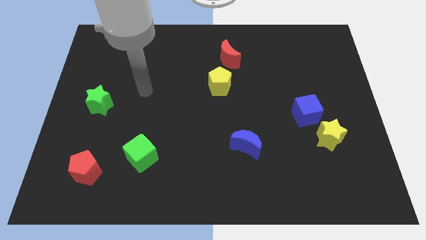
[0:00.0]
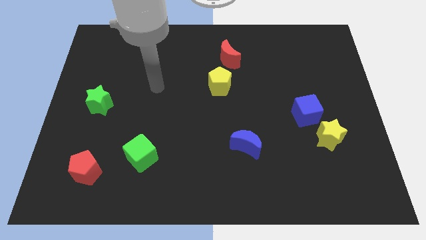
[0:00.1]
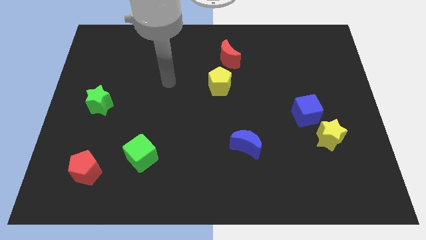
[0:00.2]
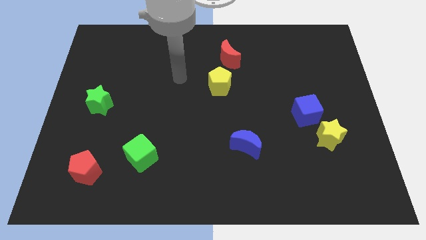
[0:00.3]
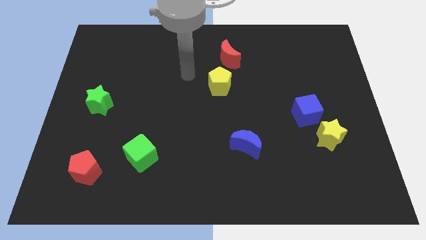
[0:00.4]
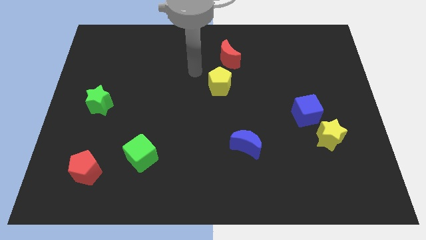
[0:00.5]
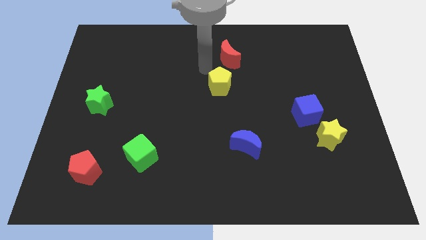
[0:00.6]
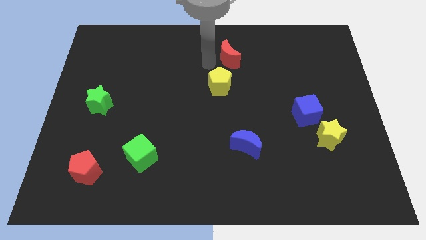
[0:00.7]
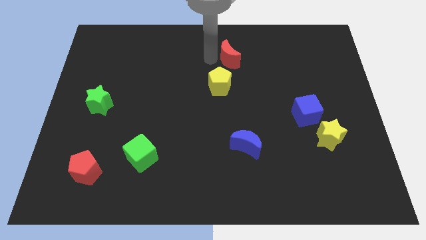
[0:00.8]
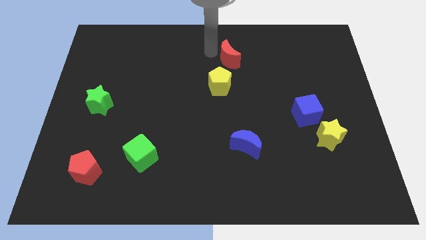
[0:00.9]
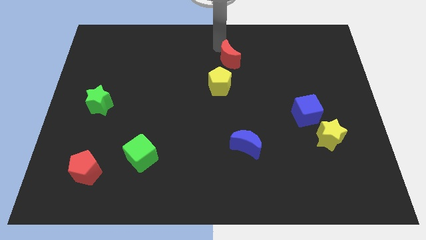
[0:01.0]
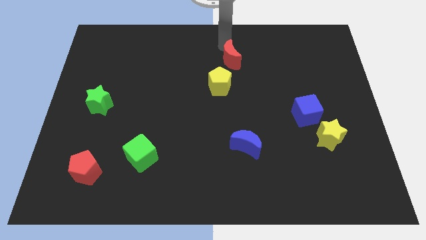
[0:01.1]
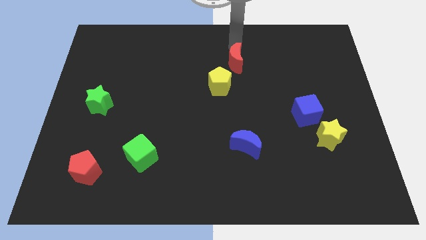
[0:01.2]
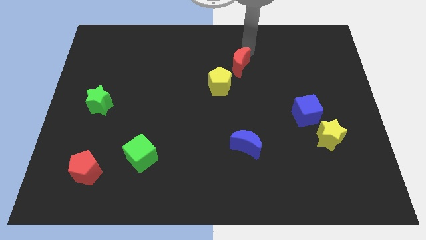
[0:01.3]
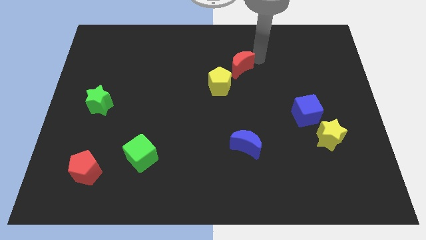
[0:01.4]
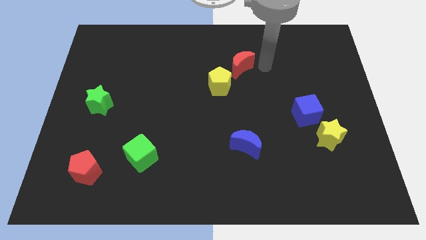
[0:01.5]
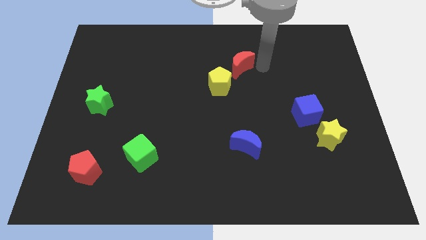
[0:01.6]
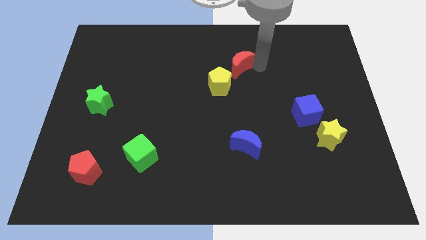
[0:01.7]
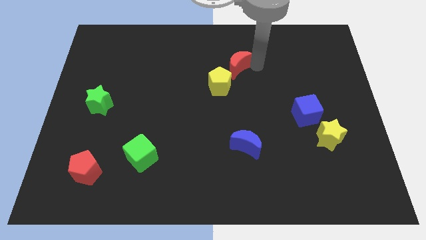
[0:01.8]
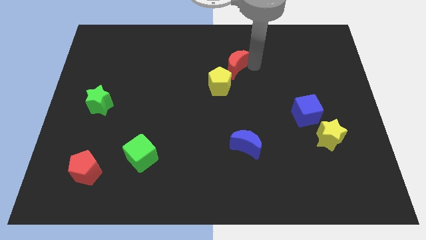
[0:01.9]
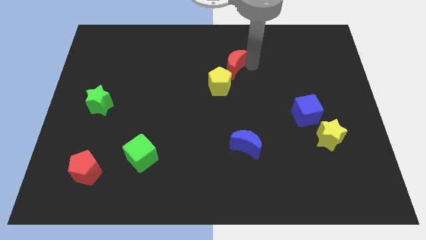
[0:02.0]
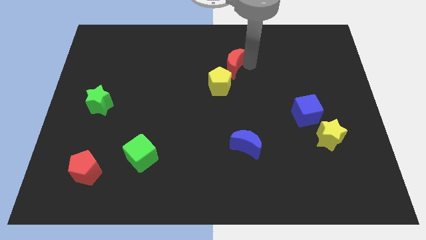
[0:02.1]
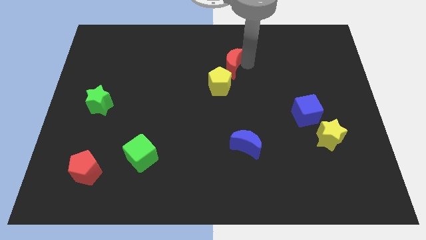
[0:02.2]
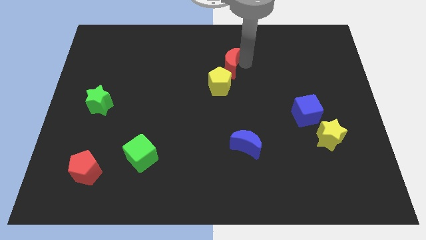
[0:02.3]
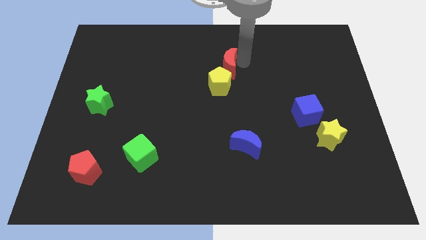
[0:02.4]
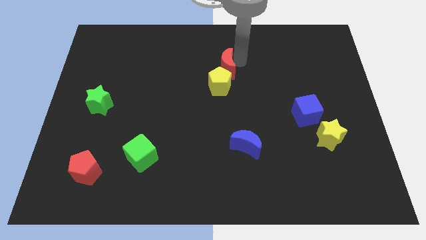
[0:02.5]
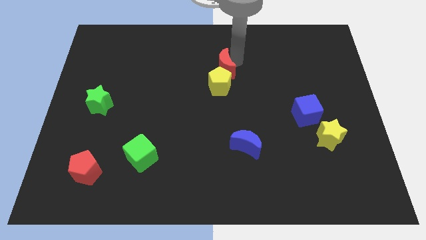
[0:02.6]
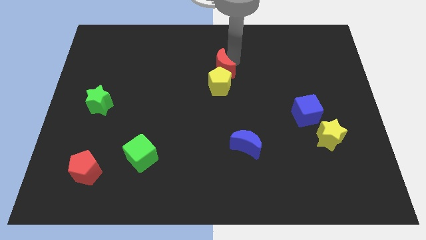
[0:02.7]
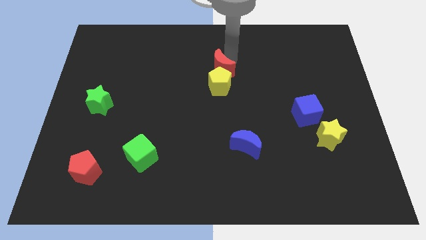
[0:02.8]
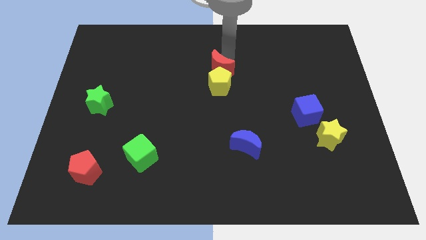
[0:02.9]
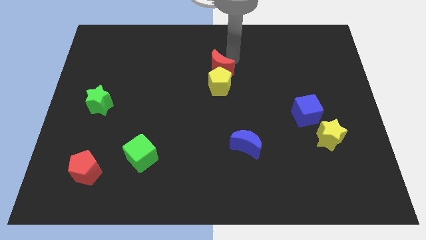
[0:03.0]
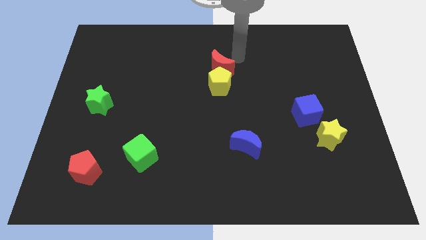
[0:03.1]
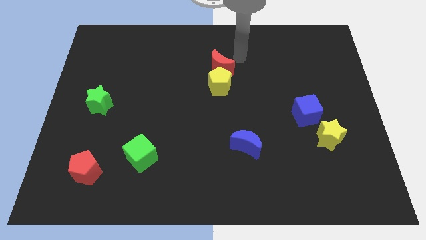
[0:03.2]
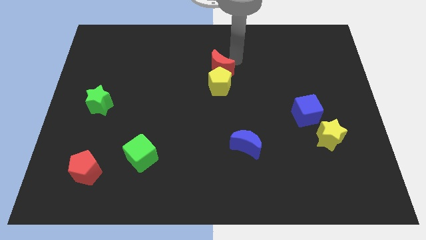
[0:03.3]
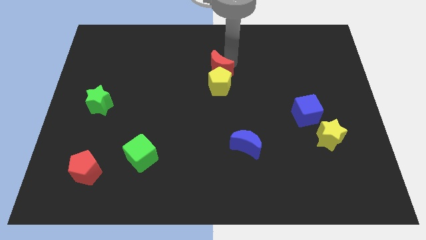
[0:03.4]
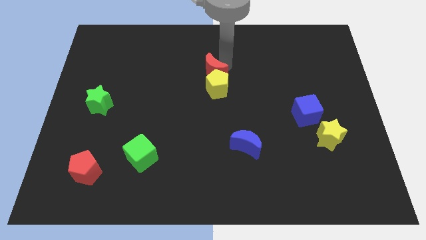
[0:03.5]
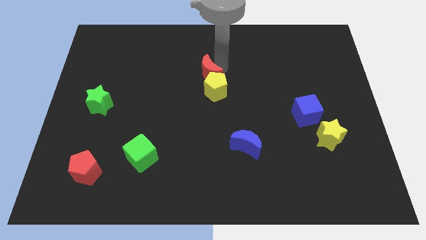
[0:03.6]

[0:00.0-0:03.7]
slightly push the red moon downwards and to the left diagonally

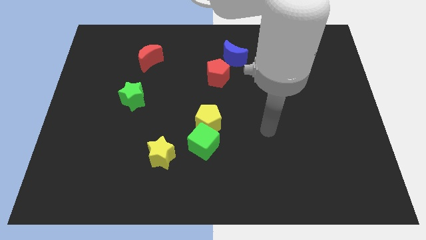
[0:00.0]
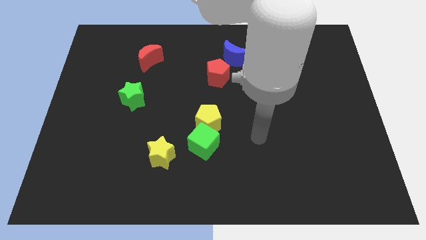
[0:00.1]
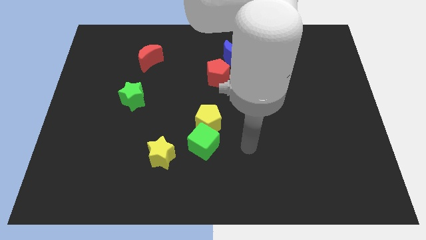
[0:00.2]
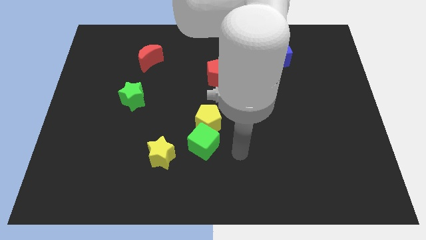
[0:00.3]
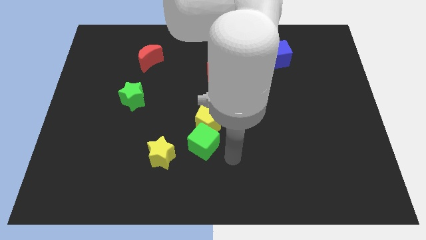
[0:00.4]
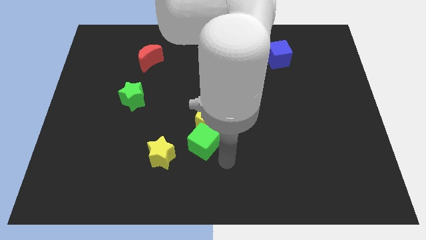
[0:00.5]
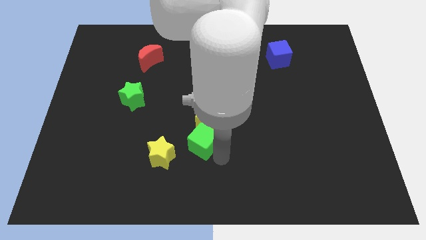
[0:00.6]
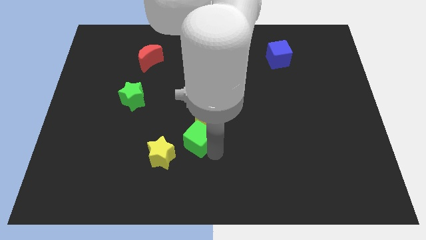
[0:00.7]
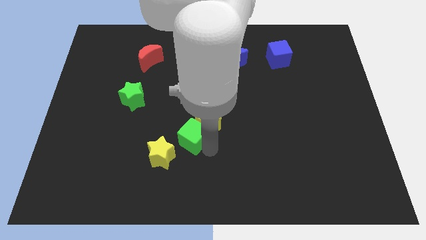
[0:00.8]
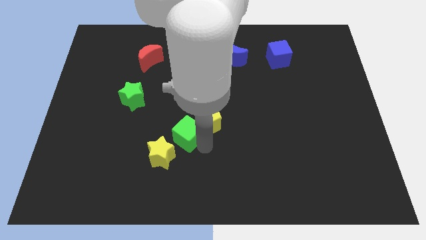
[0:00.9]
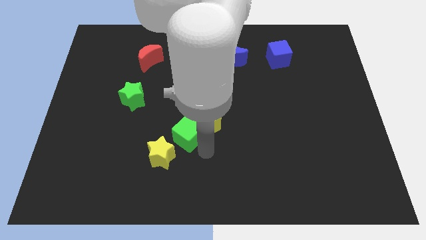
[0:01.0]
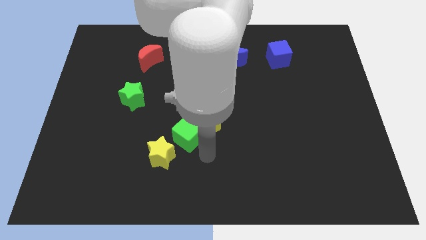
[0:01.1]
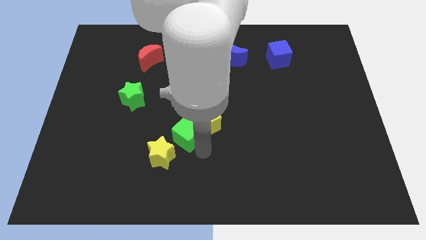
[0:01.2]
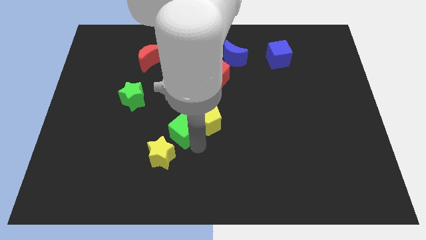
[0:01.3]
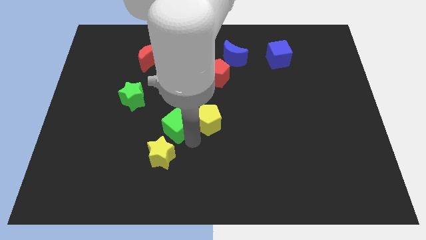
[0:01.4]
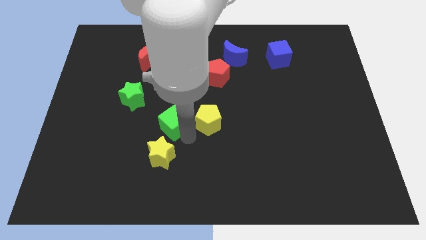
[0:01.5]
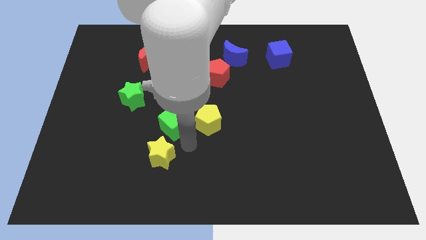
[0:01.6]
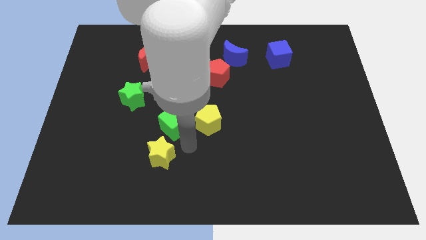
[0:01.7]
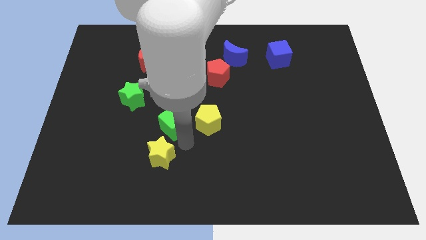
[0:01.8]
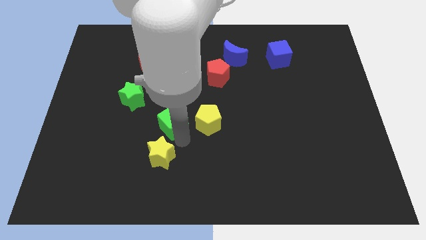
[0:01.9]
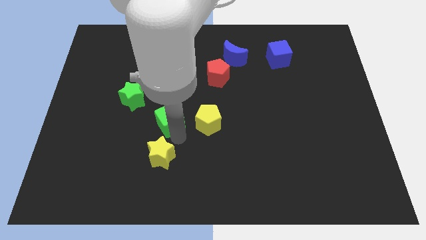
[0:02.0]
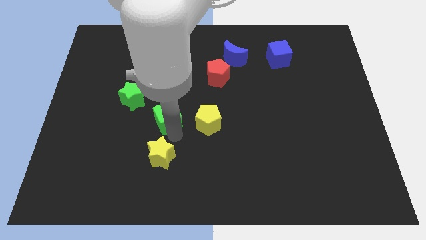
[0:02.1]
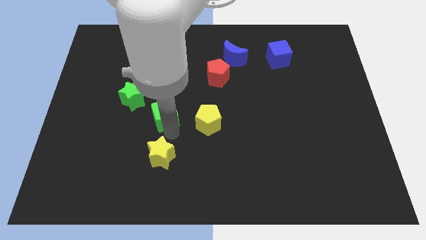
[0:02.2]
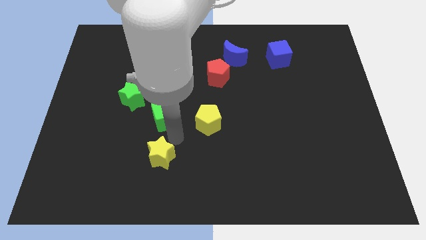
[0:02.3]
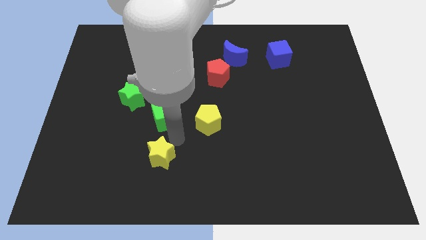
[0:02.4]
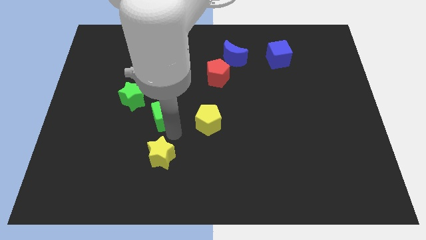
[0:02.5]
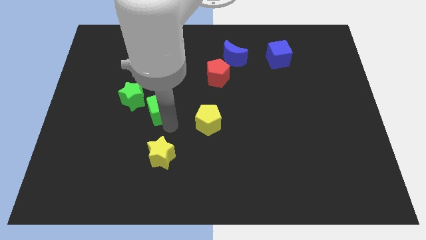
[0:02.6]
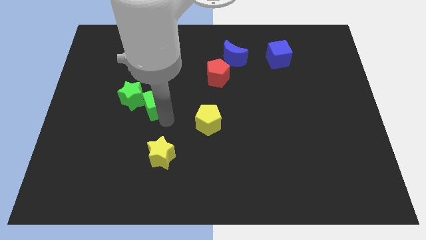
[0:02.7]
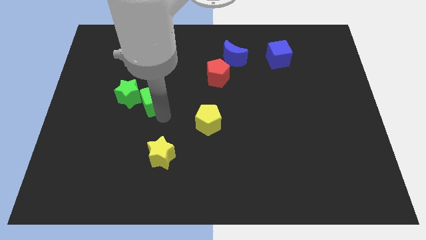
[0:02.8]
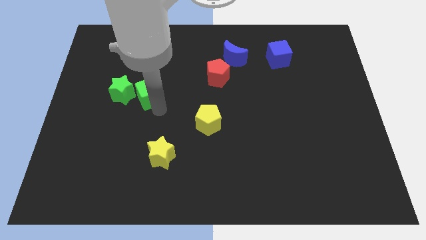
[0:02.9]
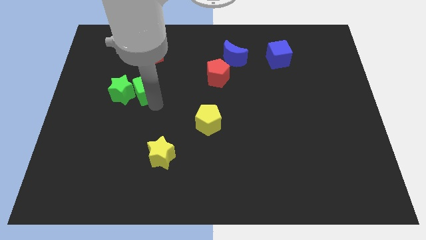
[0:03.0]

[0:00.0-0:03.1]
move the green cube upwards and to the left

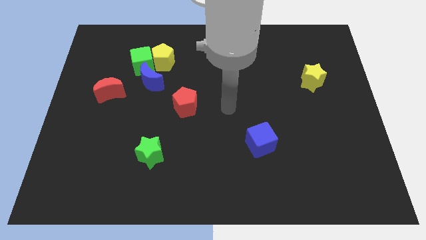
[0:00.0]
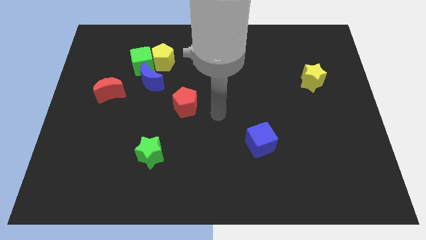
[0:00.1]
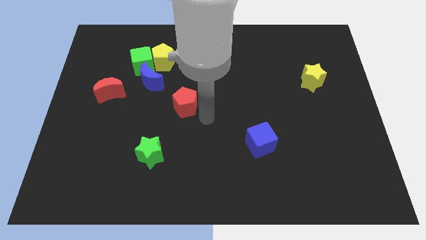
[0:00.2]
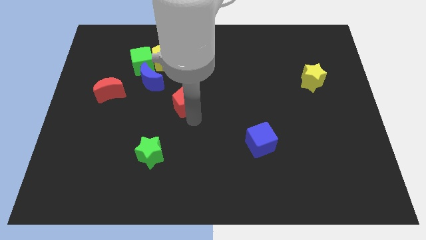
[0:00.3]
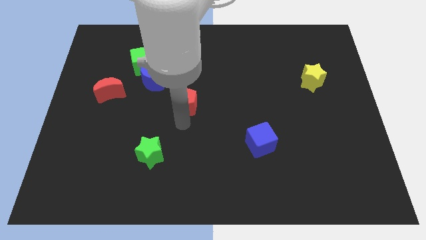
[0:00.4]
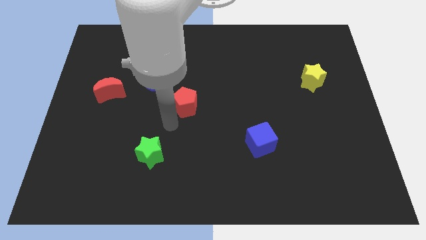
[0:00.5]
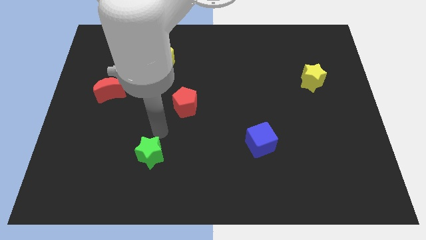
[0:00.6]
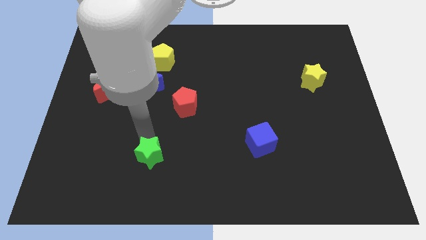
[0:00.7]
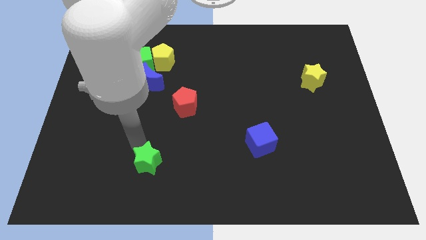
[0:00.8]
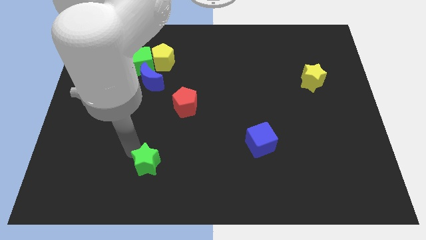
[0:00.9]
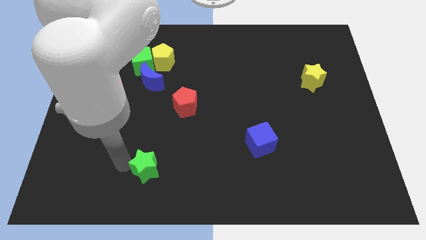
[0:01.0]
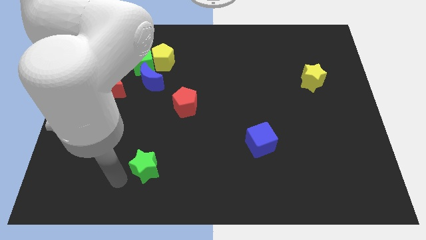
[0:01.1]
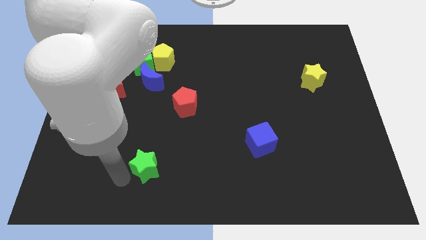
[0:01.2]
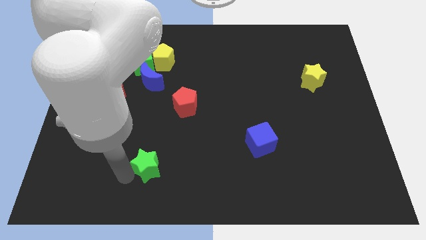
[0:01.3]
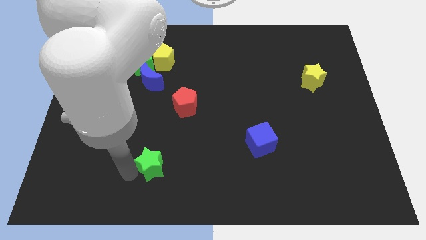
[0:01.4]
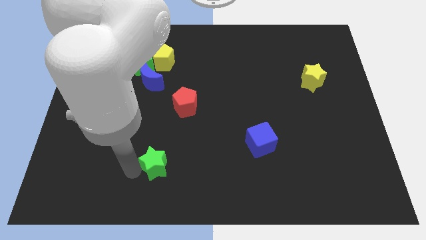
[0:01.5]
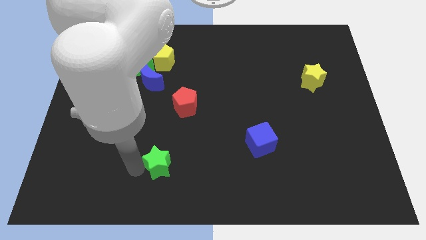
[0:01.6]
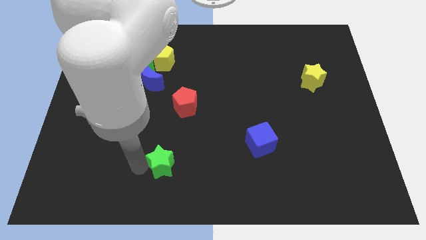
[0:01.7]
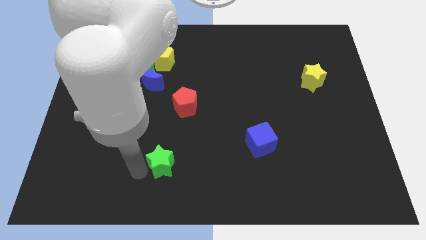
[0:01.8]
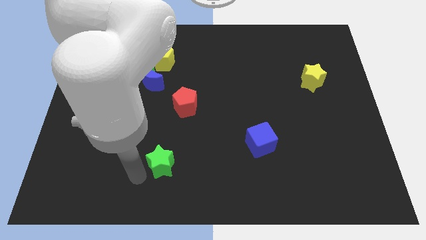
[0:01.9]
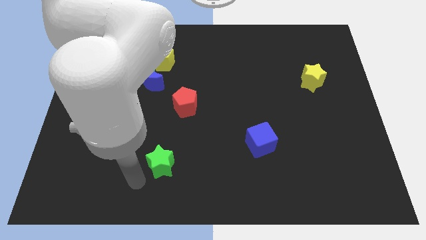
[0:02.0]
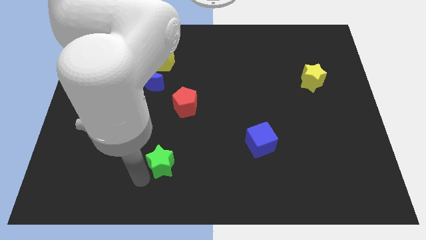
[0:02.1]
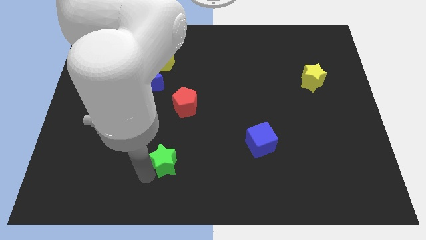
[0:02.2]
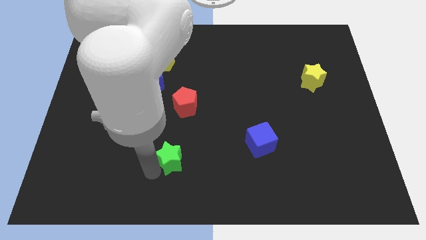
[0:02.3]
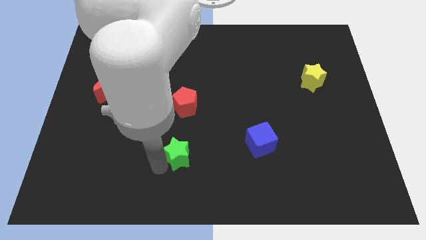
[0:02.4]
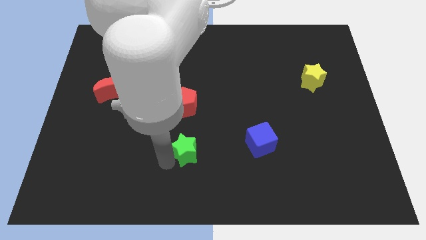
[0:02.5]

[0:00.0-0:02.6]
slightly move the green star to the right
